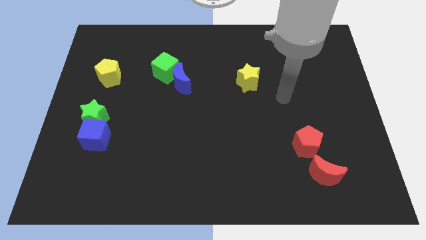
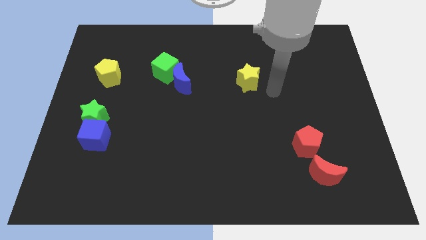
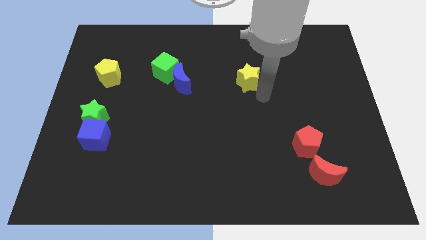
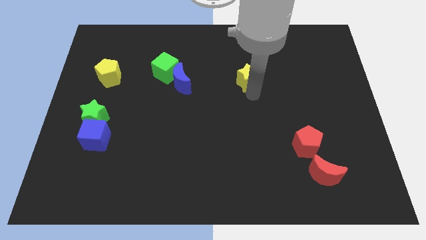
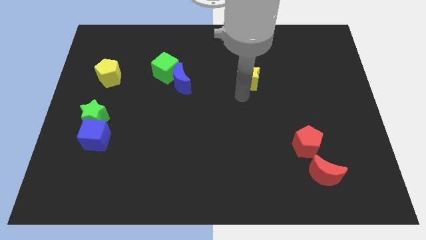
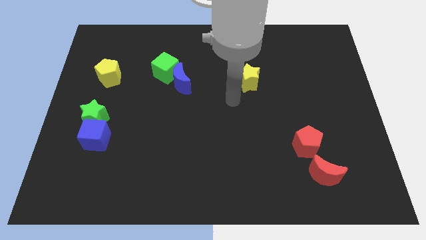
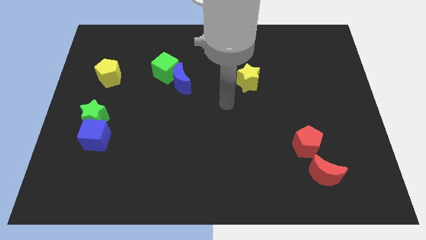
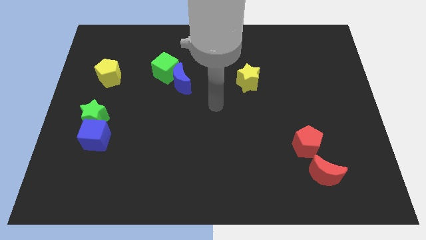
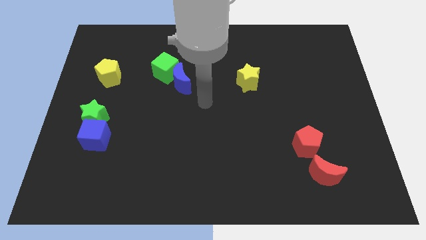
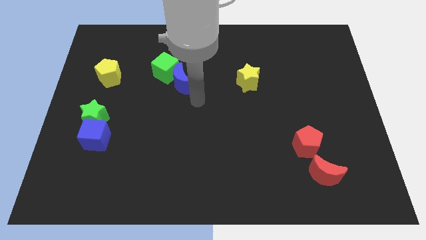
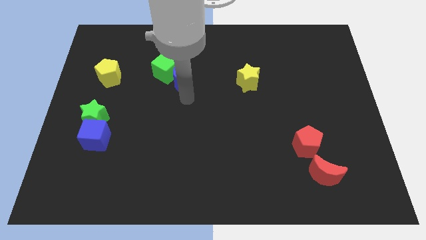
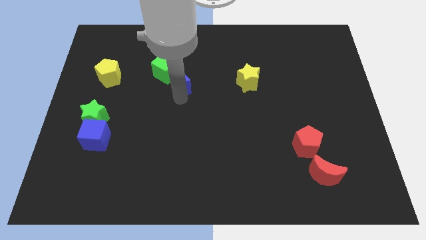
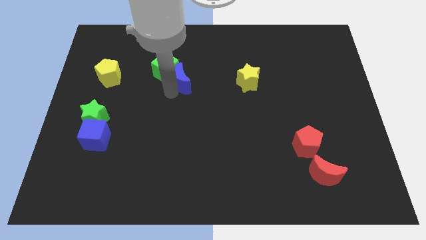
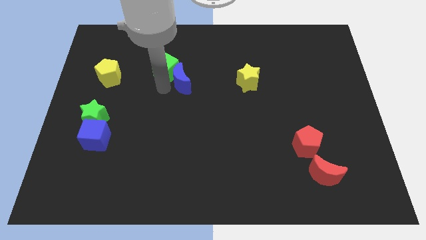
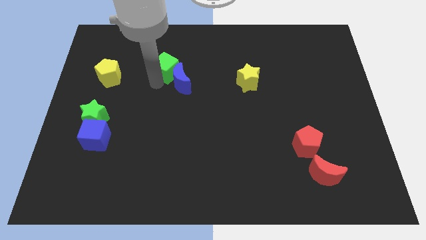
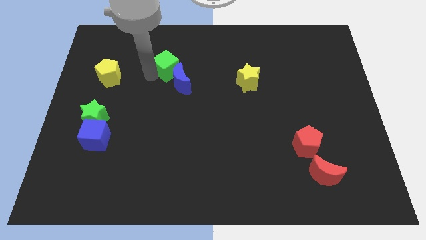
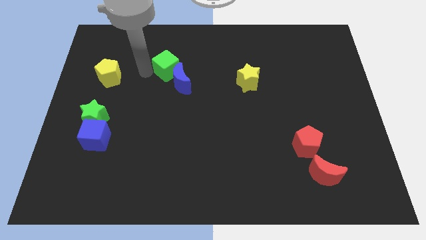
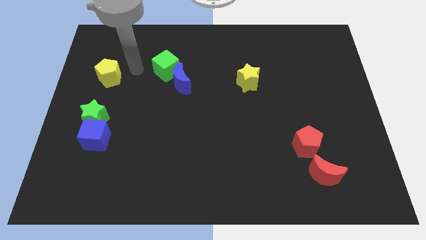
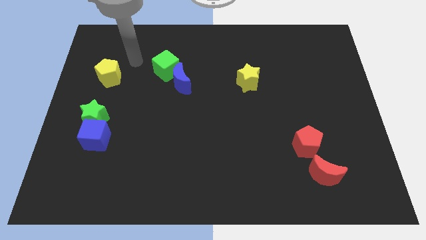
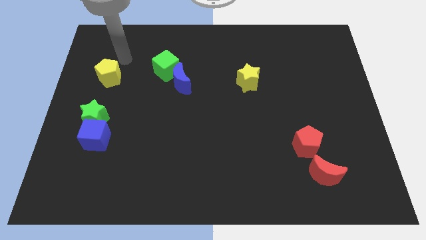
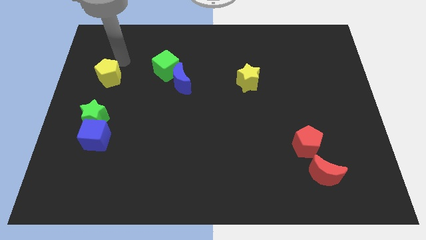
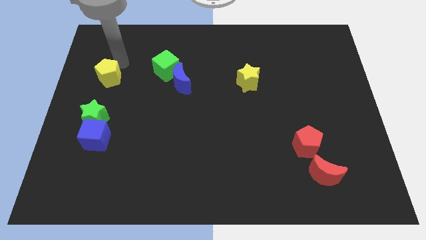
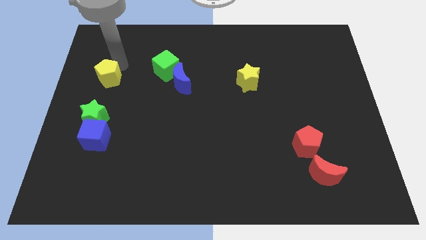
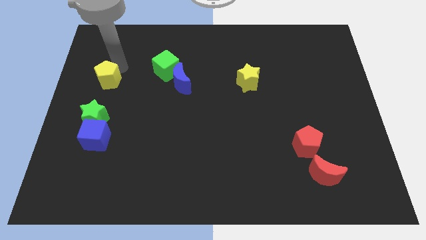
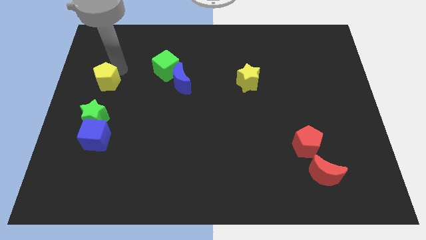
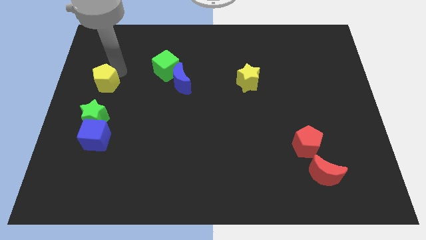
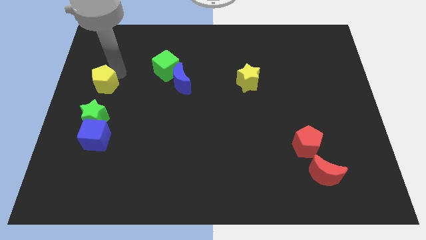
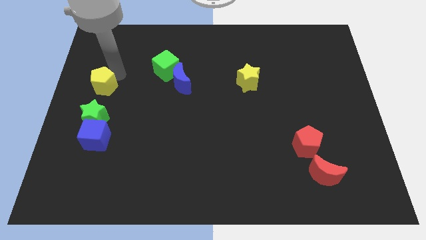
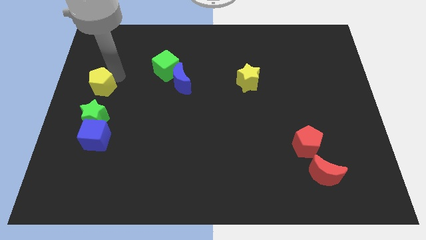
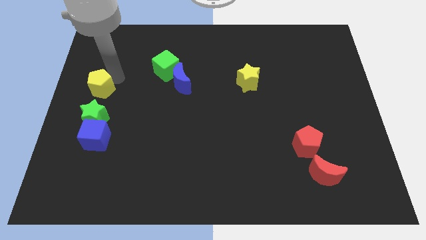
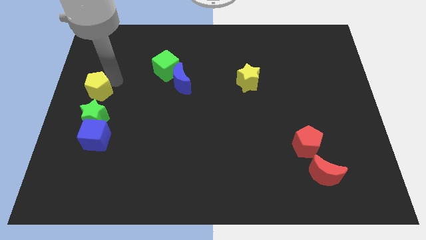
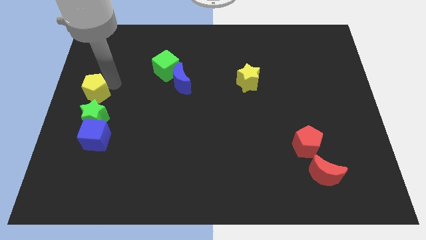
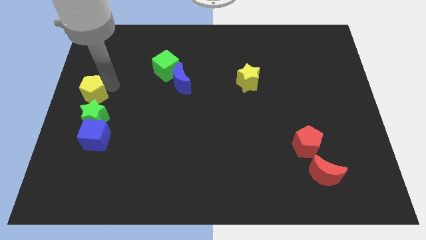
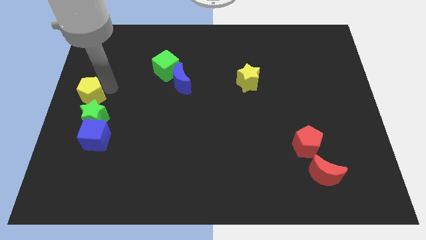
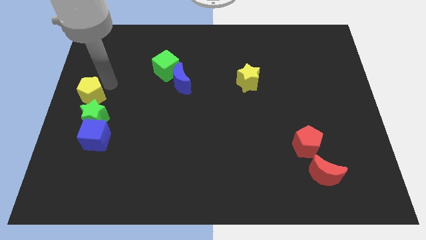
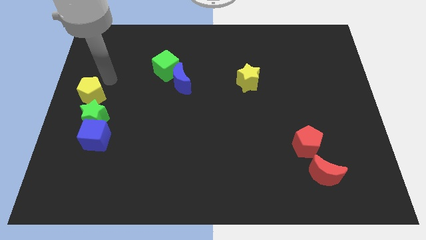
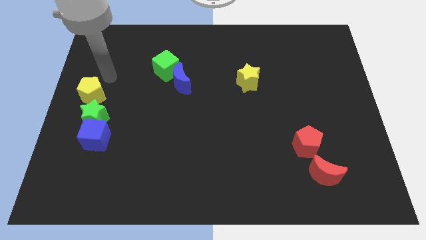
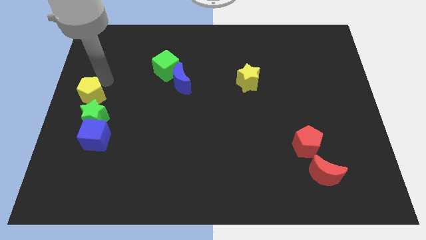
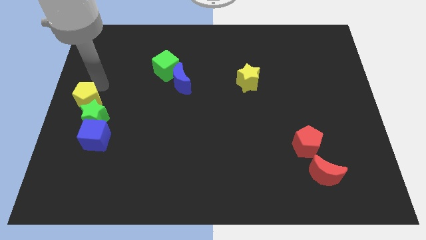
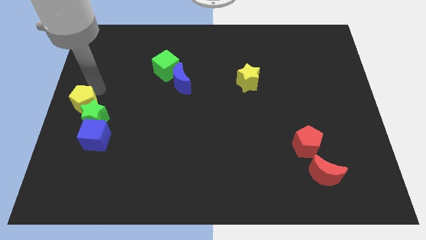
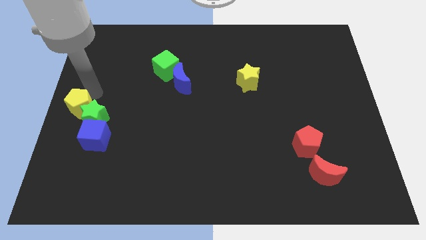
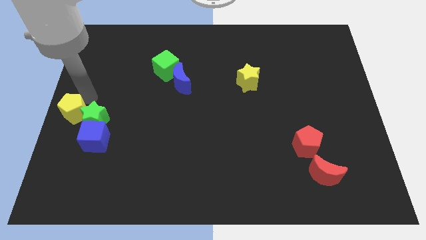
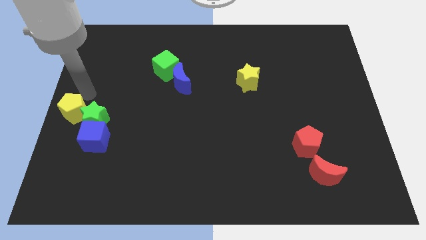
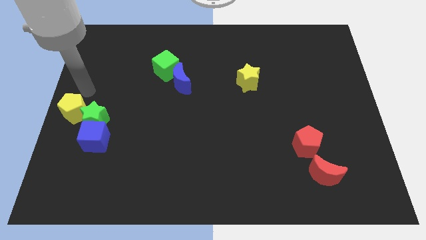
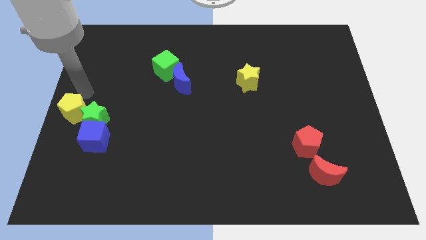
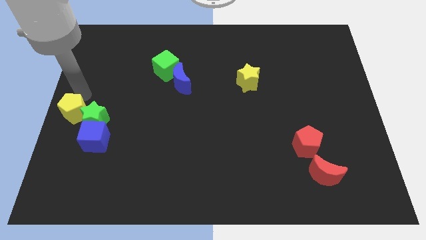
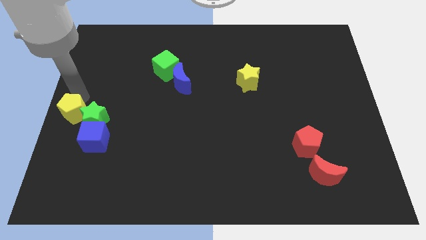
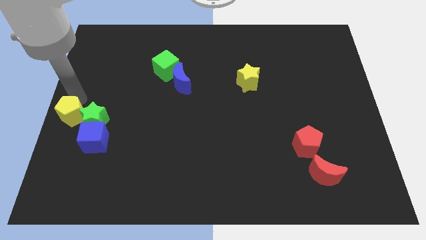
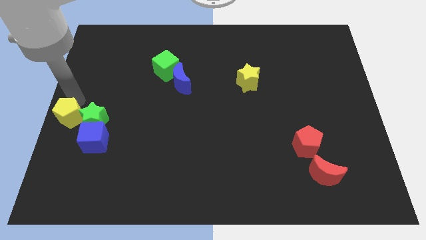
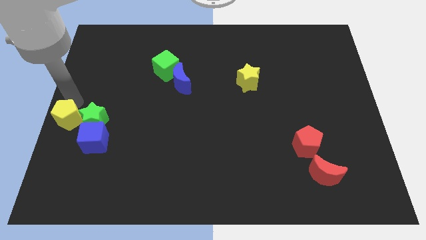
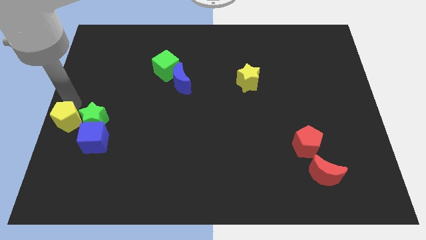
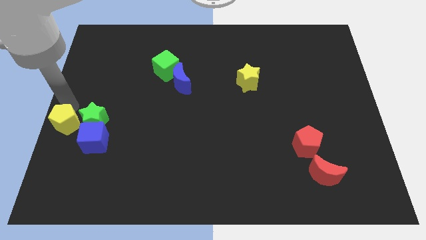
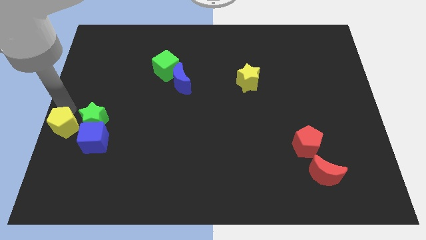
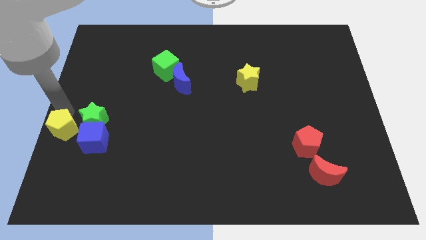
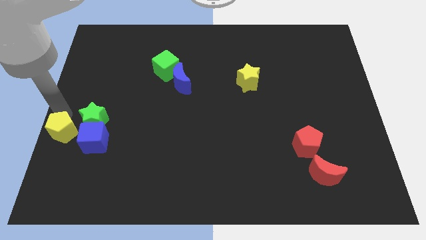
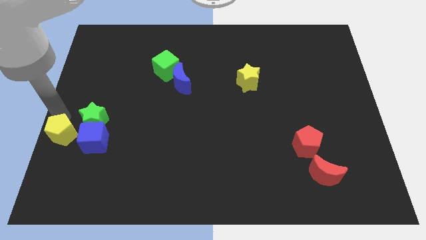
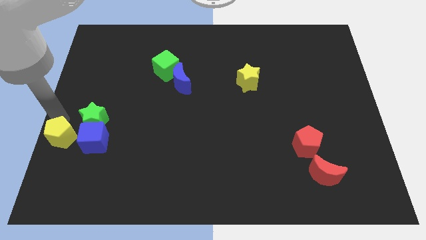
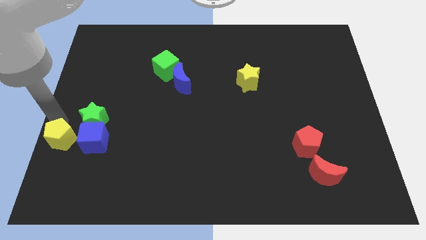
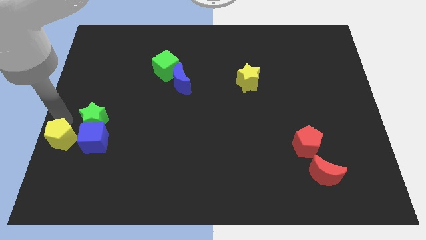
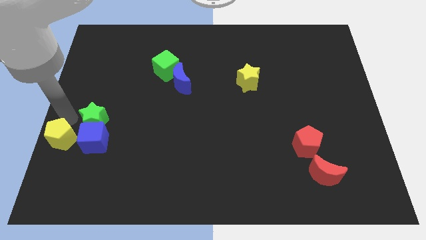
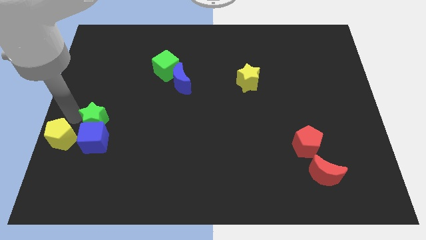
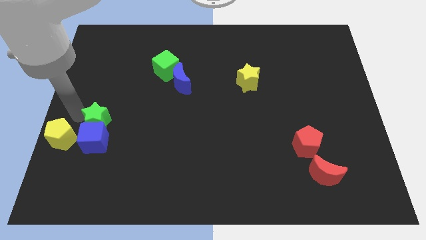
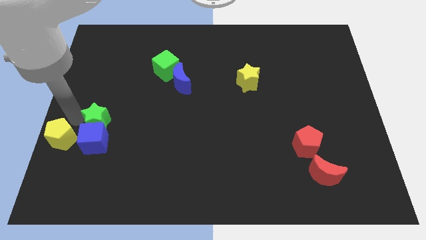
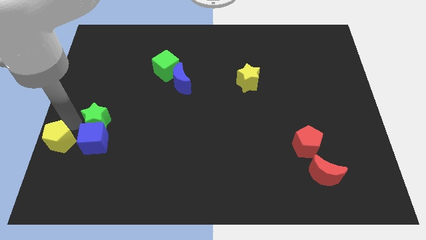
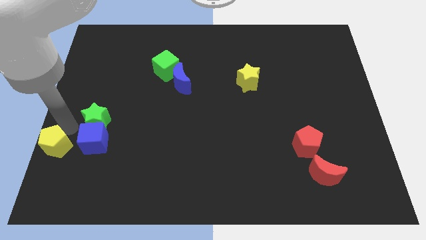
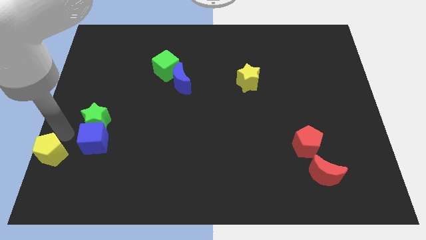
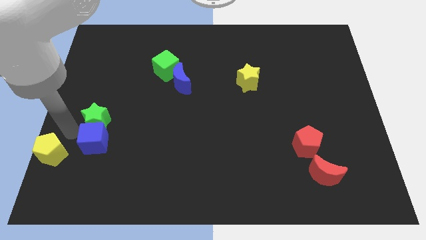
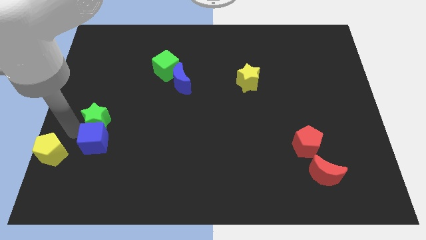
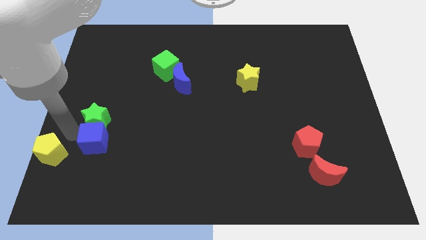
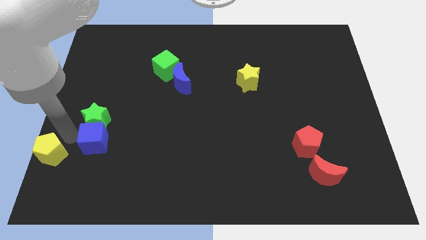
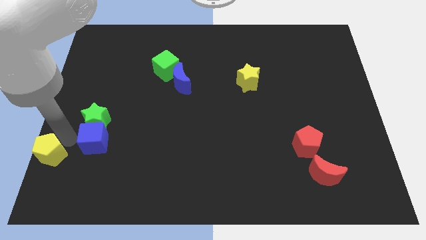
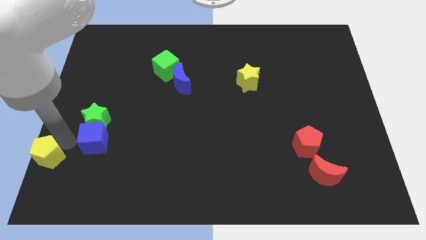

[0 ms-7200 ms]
move the yellow pentagon to the bottom left
